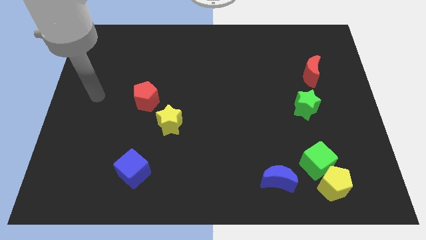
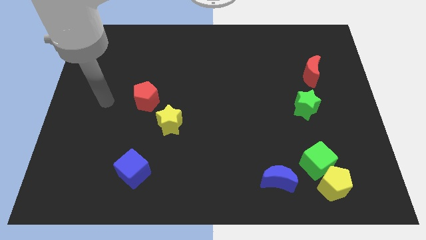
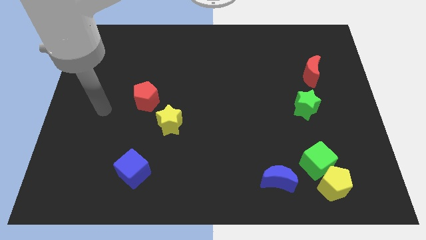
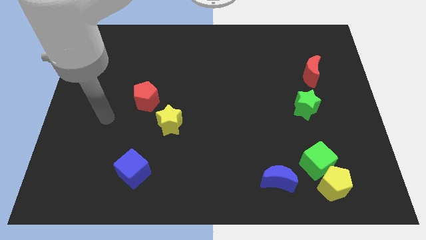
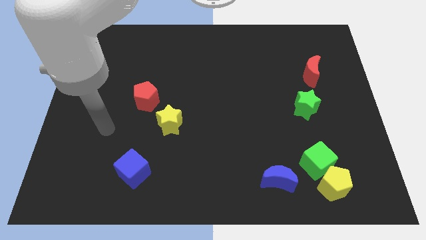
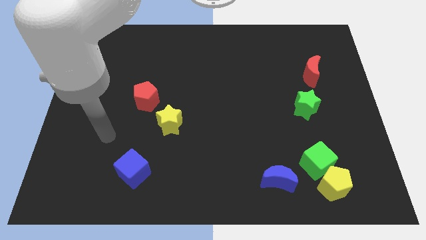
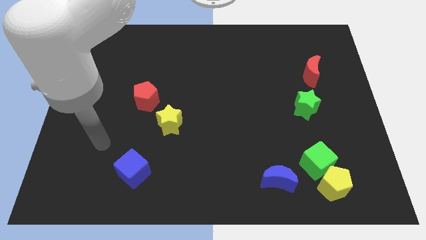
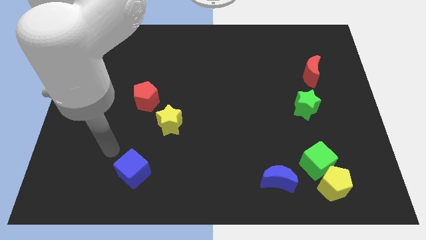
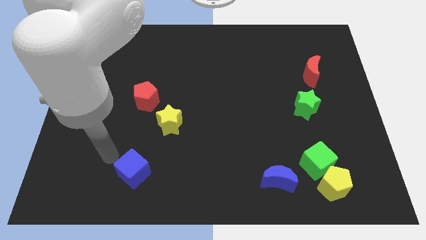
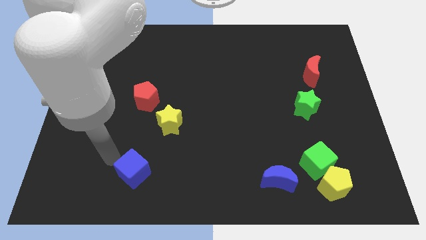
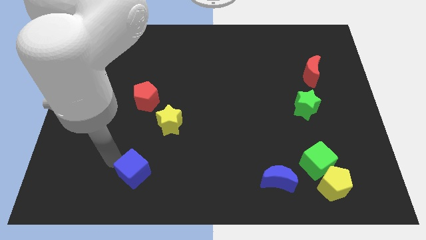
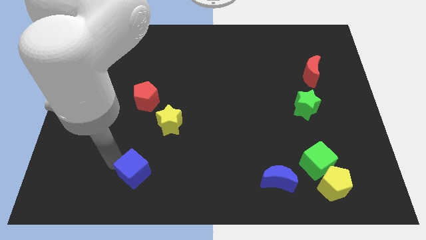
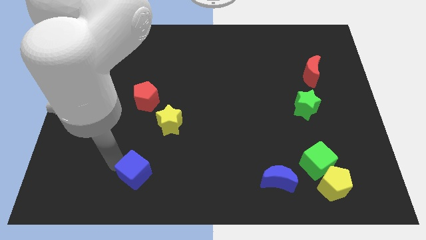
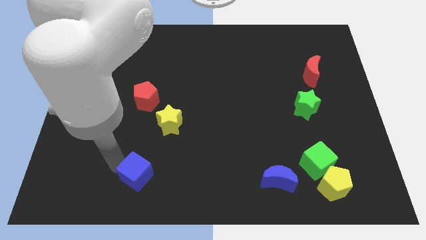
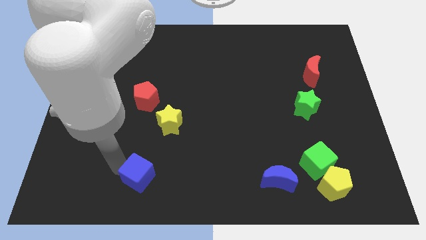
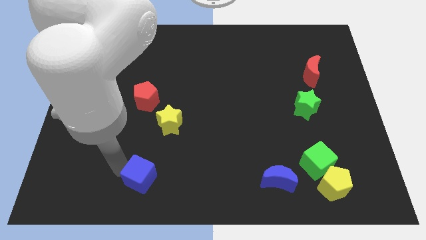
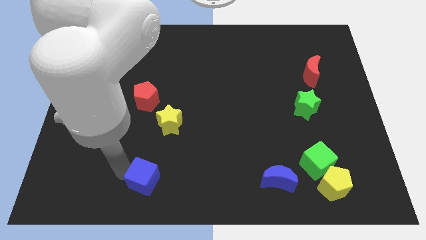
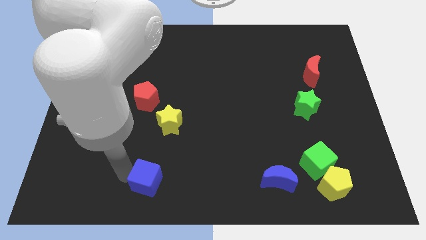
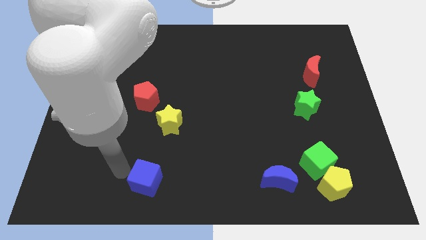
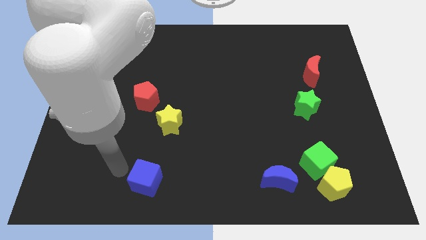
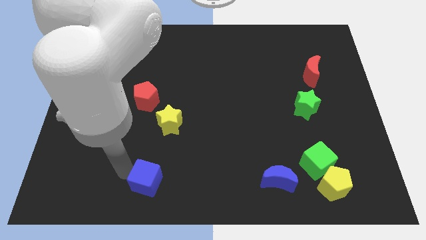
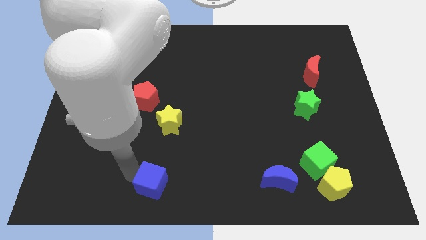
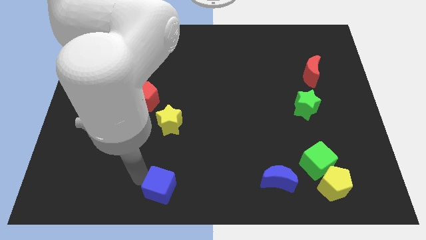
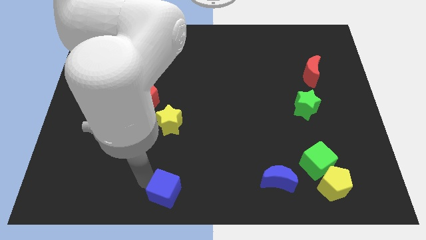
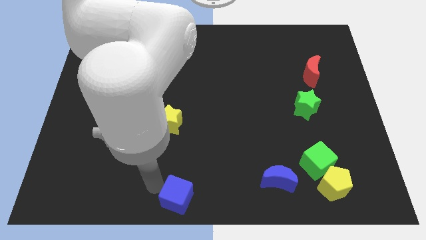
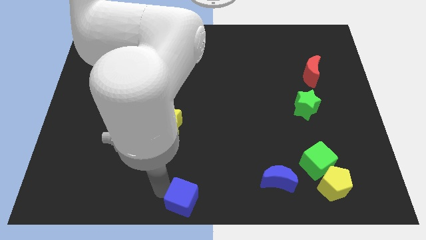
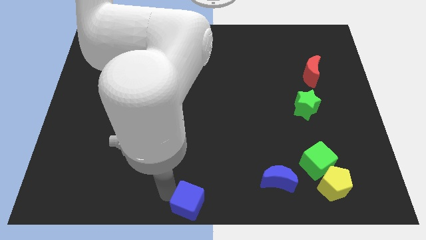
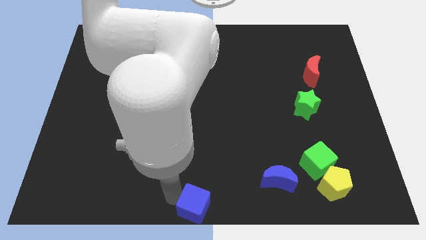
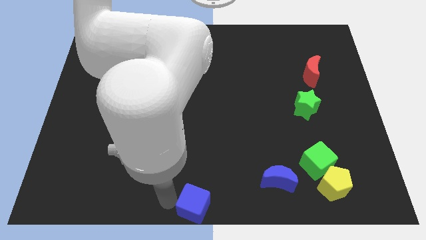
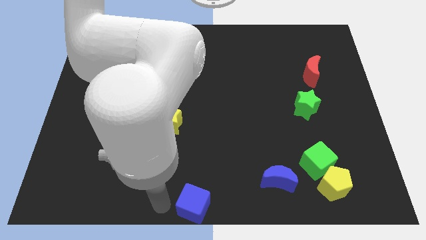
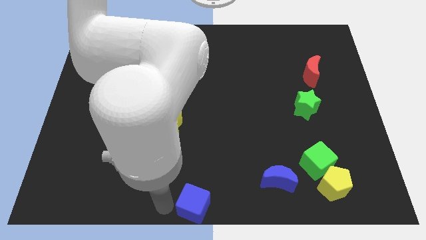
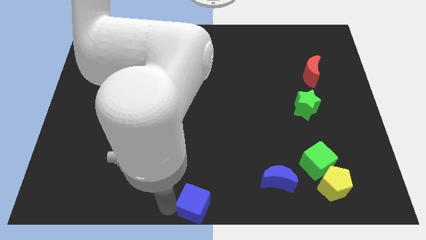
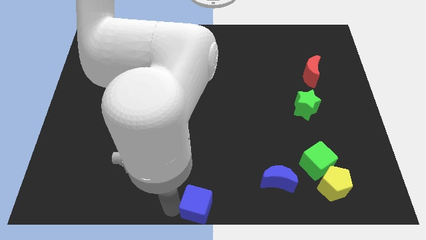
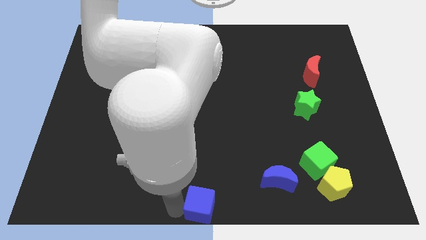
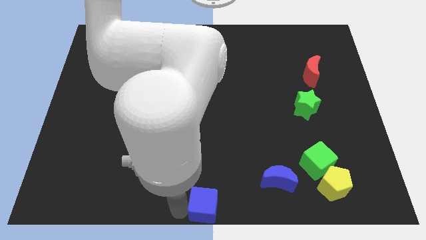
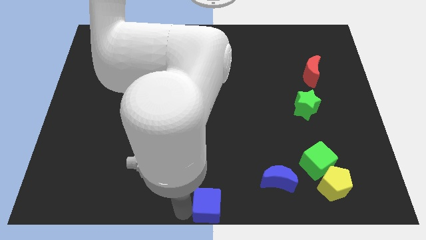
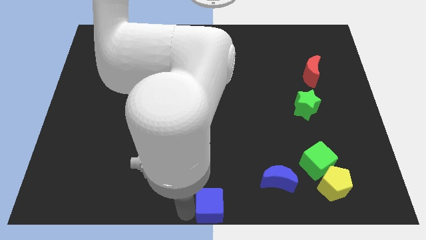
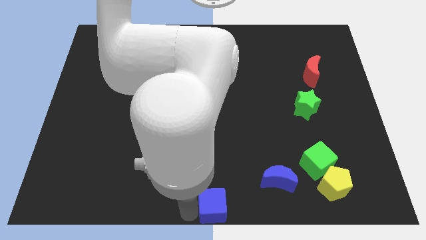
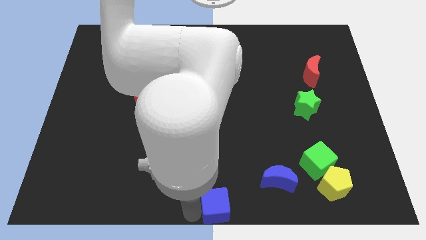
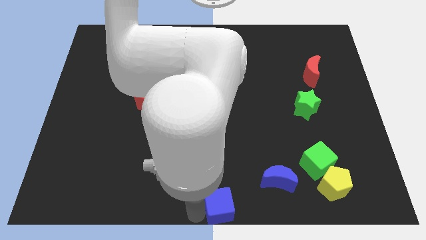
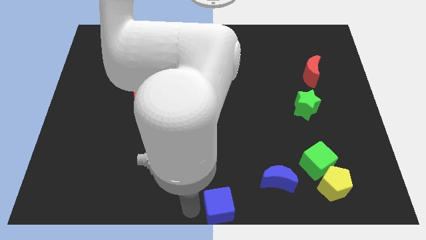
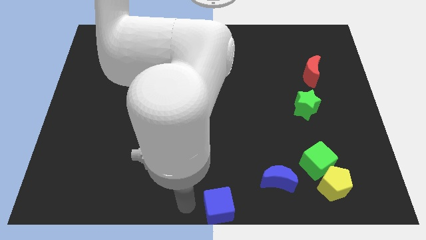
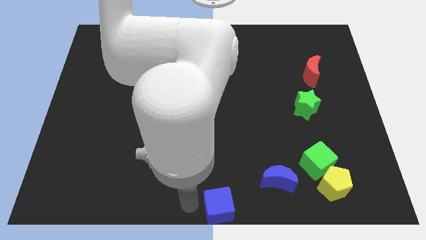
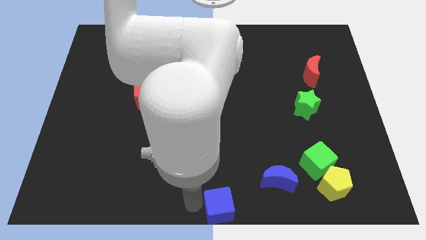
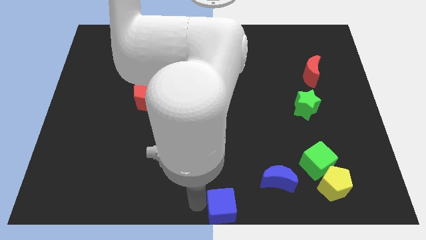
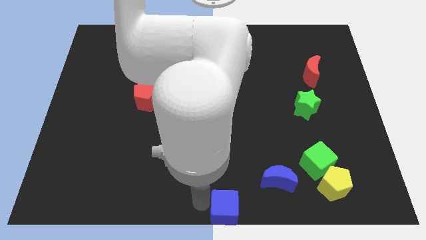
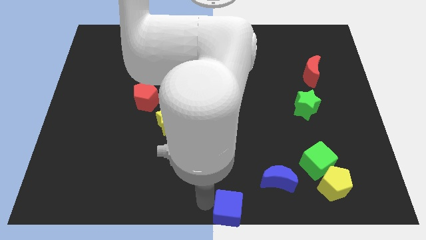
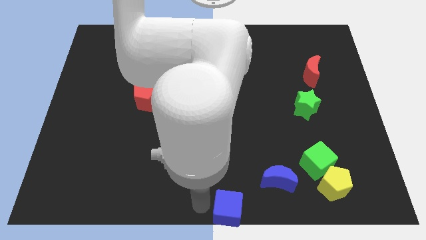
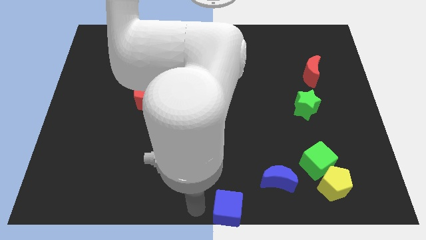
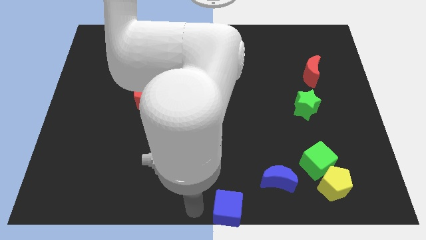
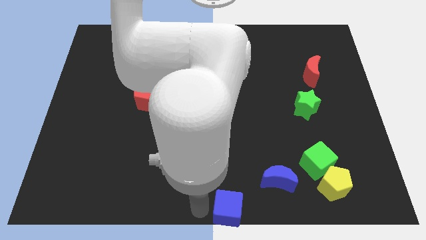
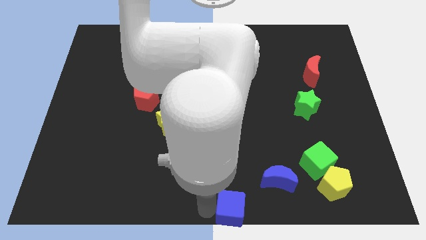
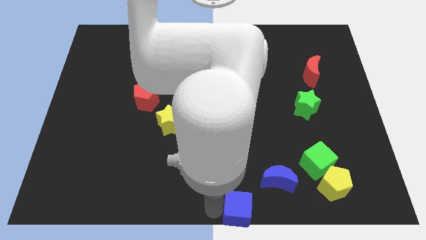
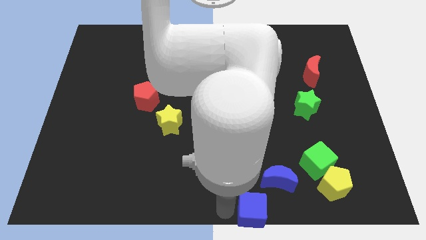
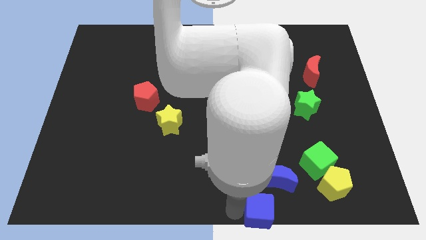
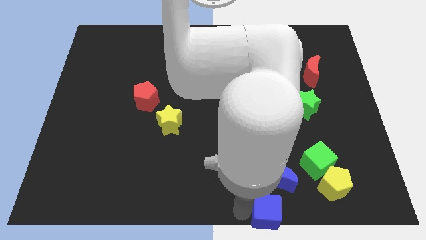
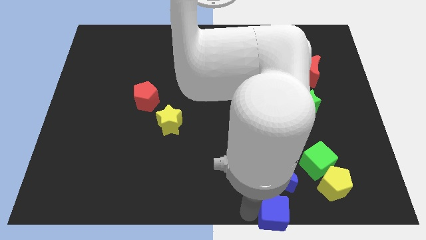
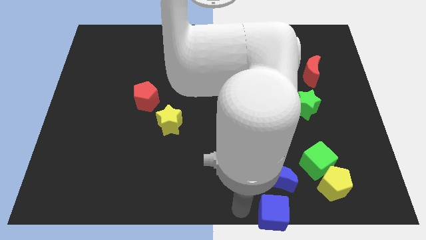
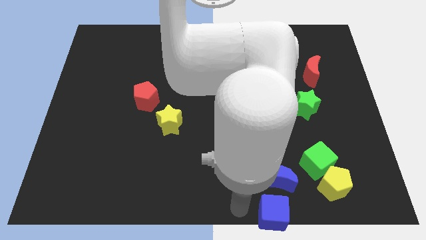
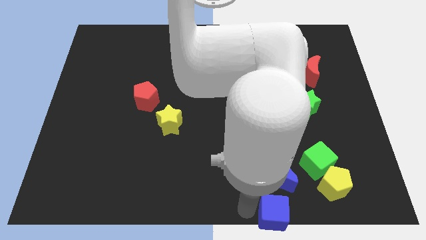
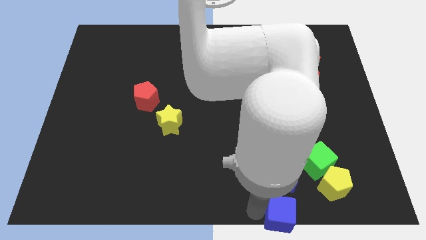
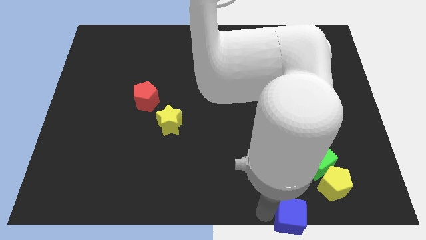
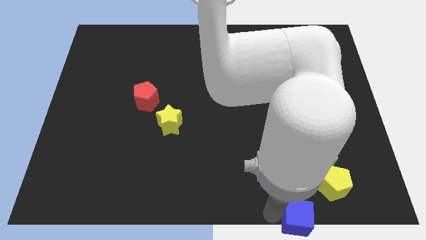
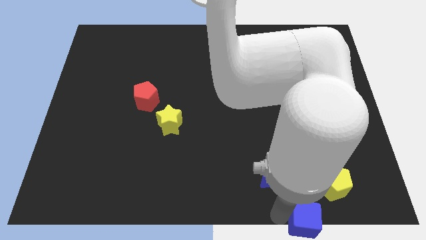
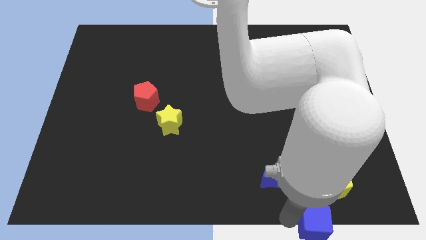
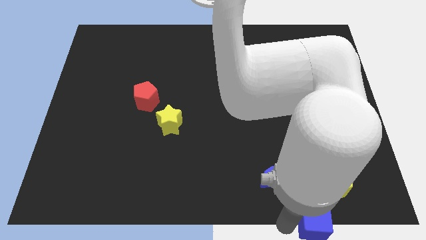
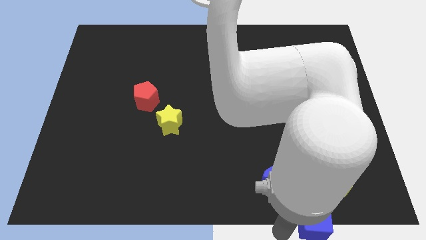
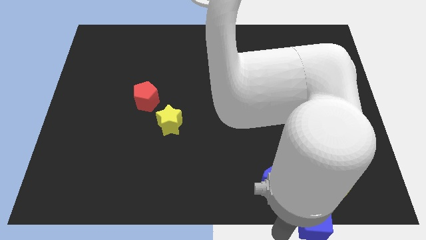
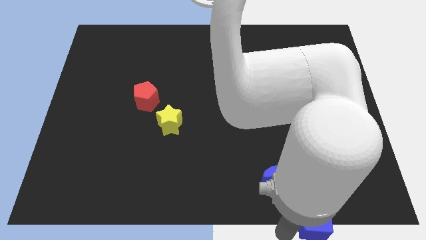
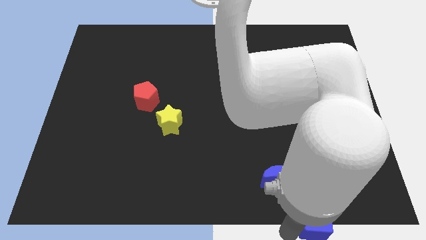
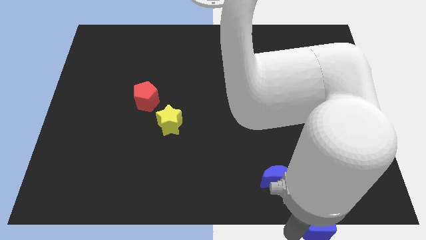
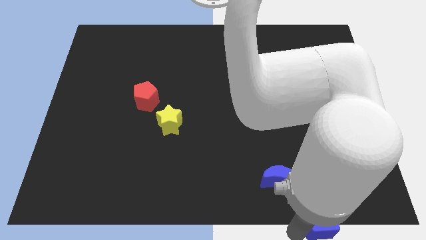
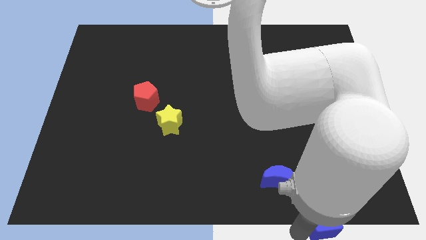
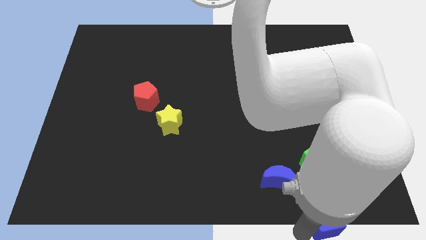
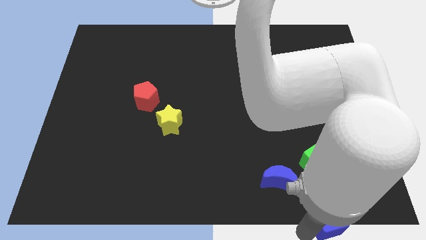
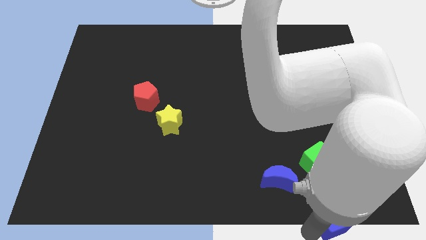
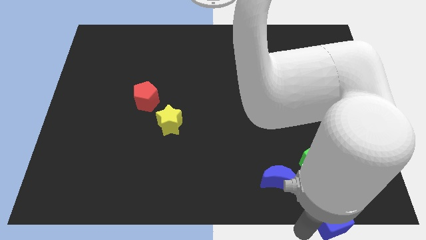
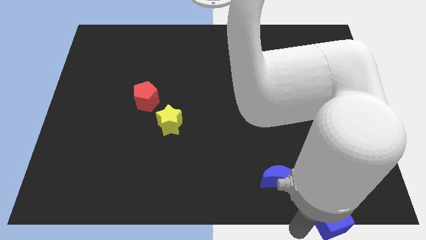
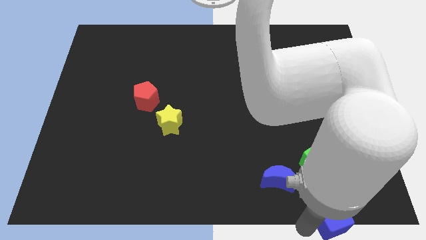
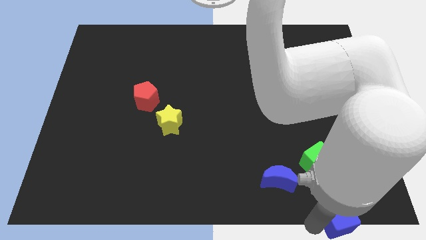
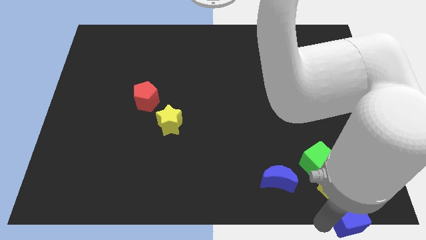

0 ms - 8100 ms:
put the blue cube to the bottom right of the board
